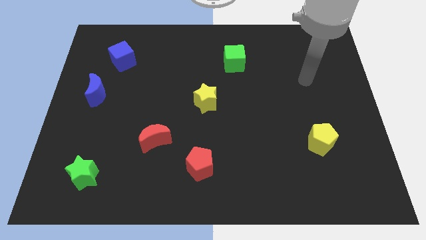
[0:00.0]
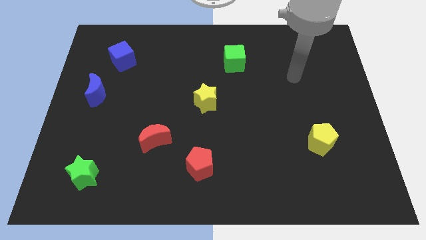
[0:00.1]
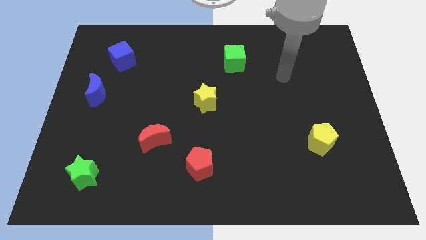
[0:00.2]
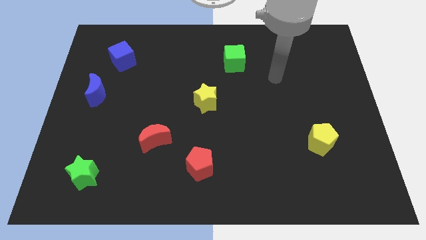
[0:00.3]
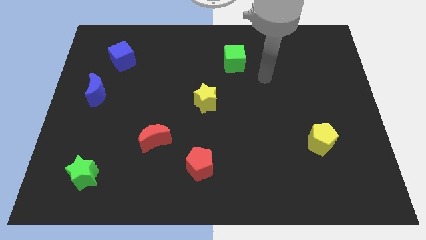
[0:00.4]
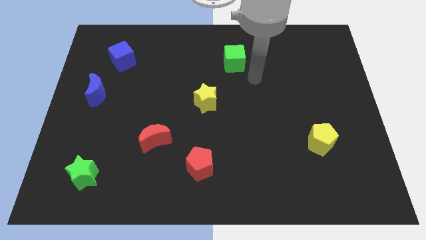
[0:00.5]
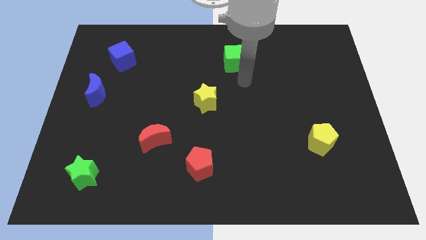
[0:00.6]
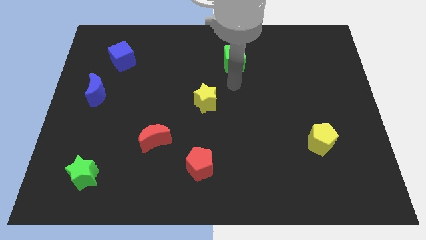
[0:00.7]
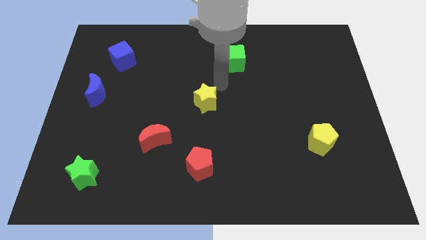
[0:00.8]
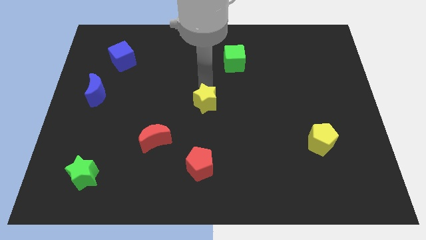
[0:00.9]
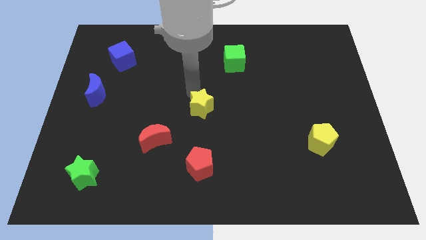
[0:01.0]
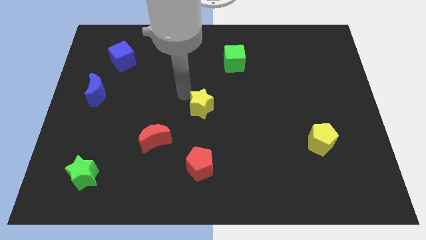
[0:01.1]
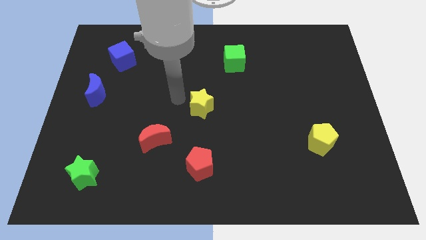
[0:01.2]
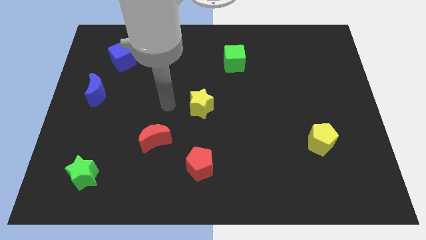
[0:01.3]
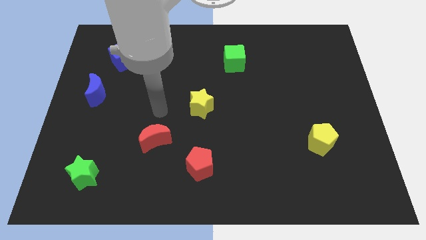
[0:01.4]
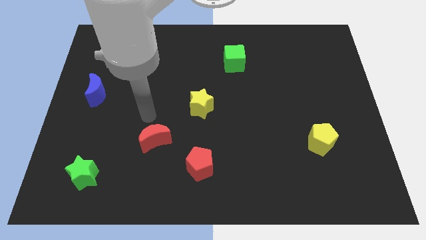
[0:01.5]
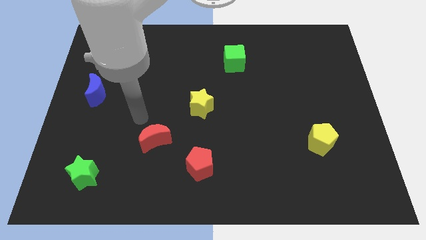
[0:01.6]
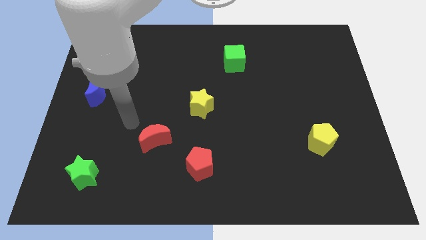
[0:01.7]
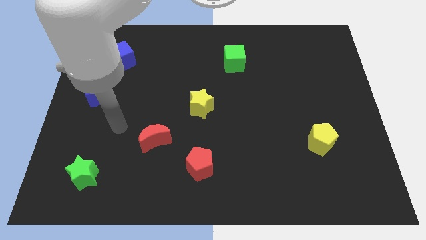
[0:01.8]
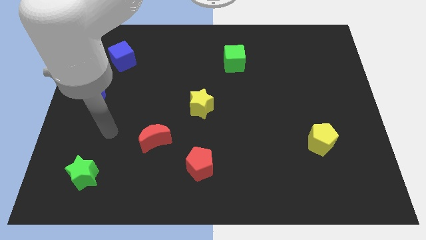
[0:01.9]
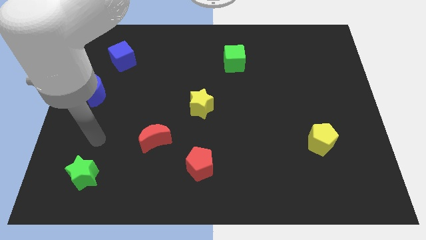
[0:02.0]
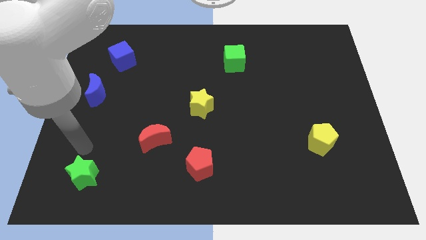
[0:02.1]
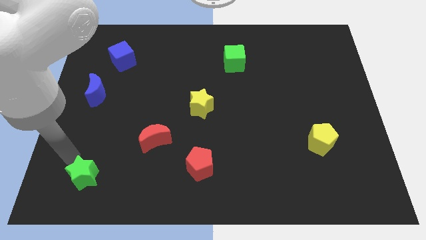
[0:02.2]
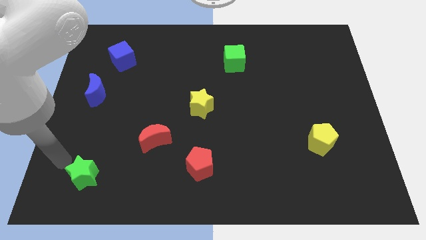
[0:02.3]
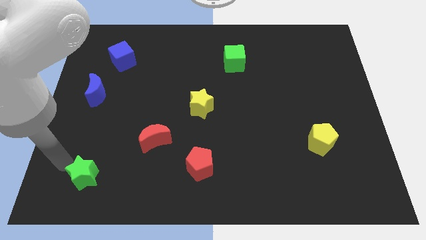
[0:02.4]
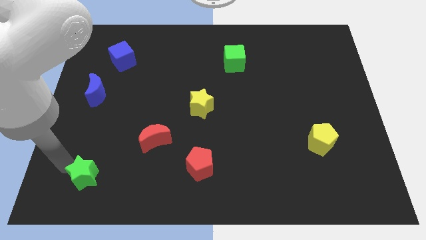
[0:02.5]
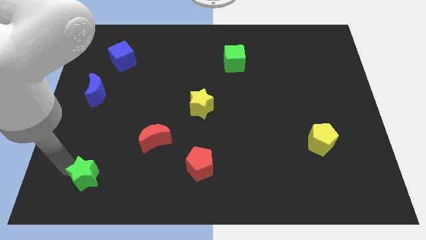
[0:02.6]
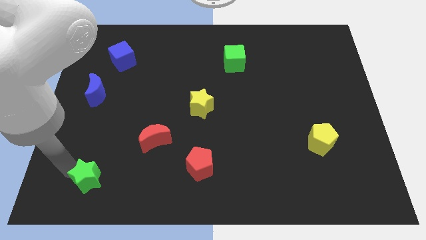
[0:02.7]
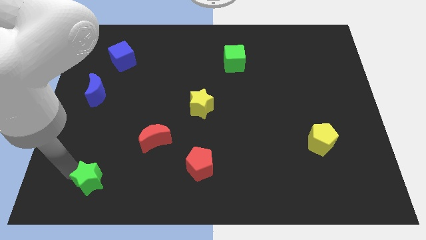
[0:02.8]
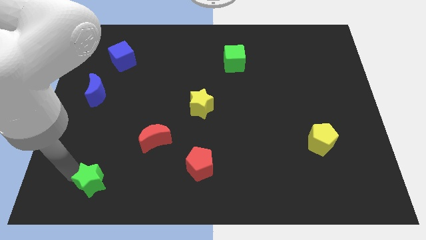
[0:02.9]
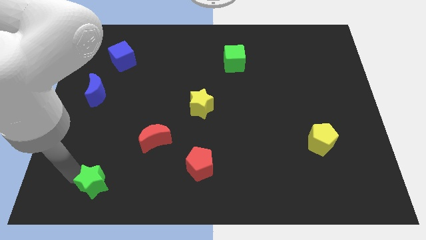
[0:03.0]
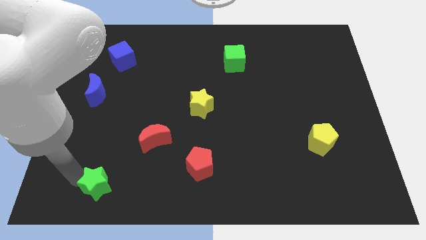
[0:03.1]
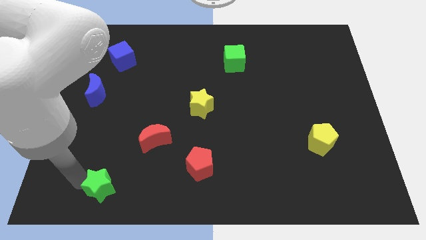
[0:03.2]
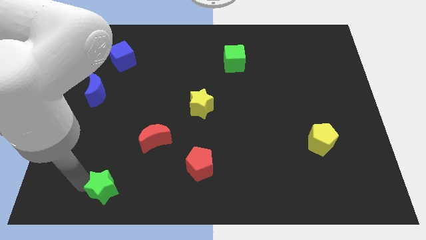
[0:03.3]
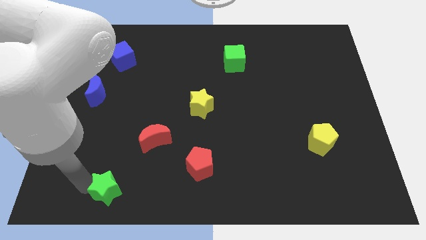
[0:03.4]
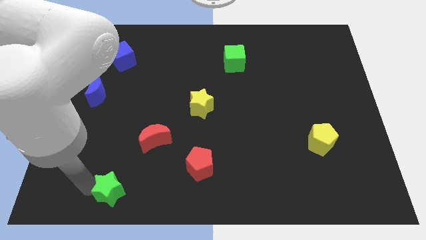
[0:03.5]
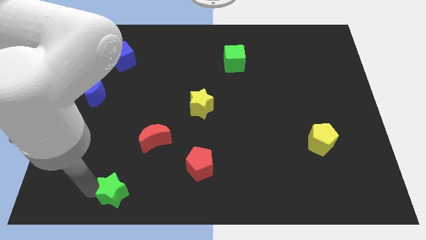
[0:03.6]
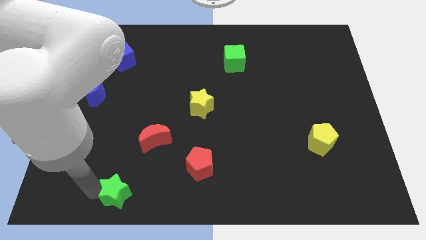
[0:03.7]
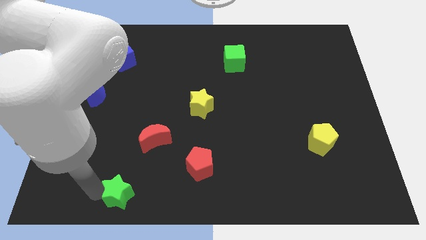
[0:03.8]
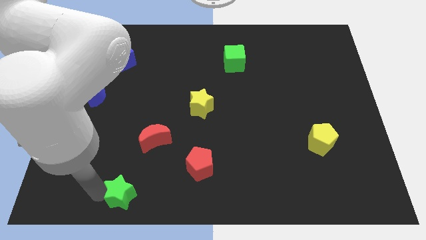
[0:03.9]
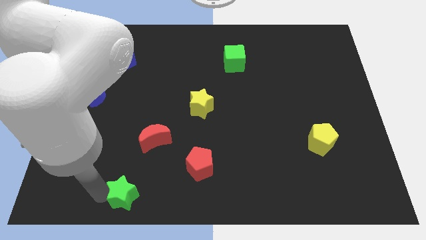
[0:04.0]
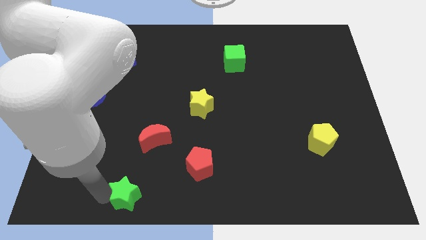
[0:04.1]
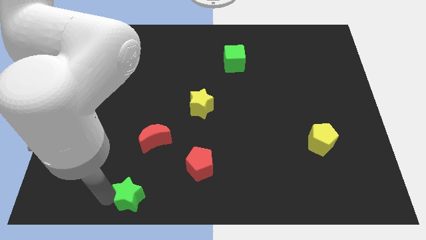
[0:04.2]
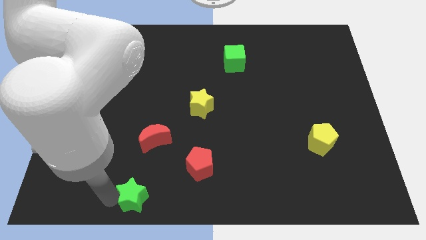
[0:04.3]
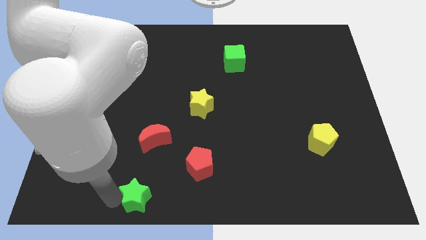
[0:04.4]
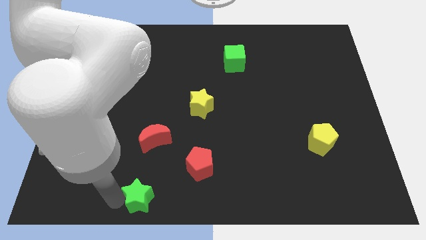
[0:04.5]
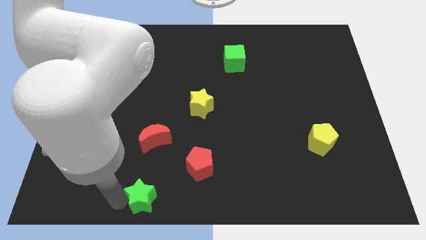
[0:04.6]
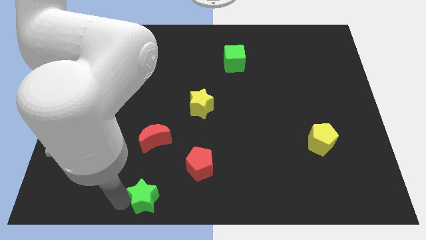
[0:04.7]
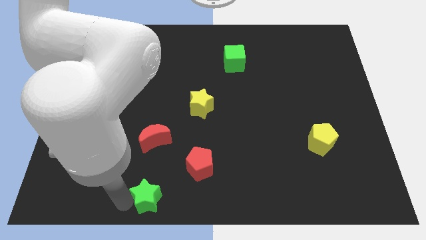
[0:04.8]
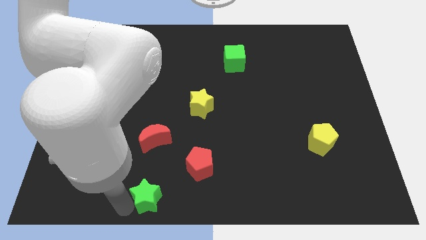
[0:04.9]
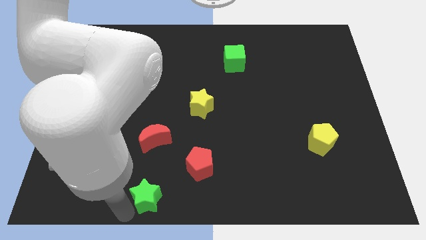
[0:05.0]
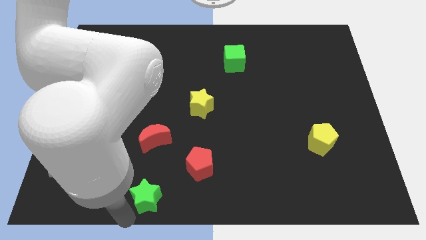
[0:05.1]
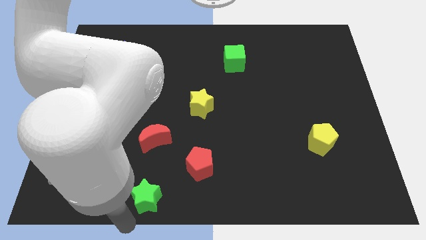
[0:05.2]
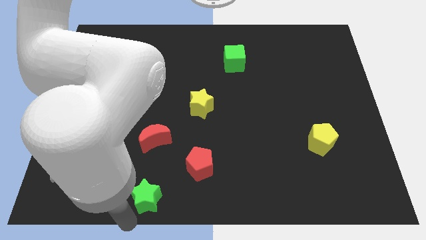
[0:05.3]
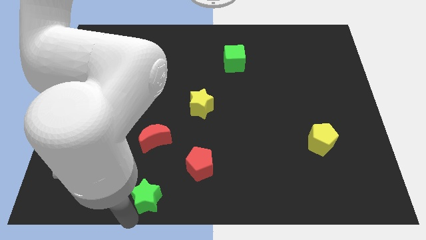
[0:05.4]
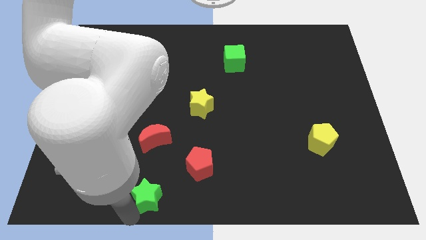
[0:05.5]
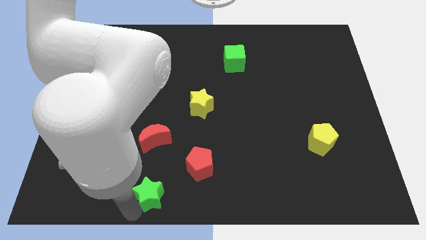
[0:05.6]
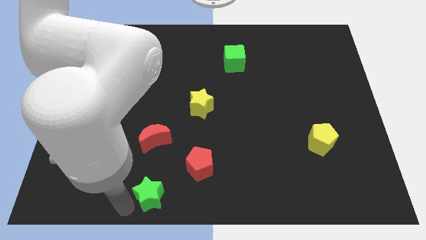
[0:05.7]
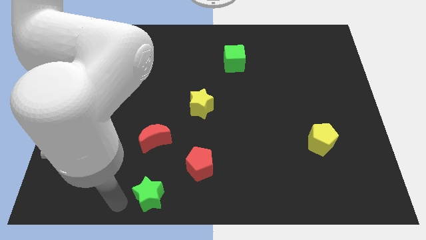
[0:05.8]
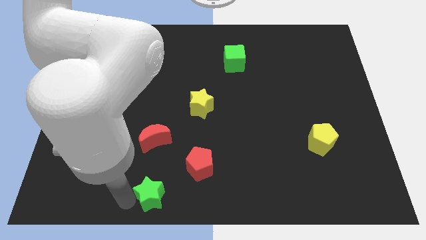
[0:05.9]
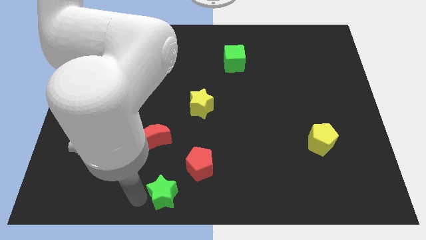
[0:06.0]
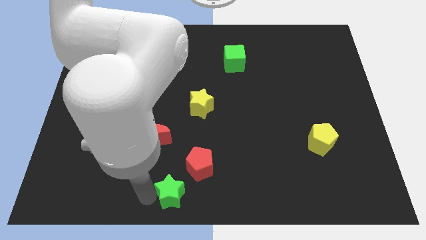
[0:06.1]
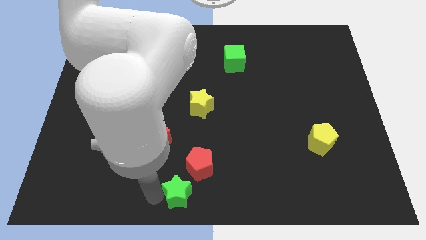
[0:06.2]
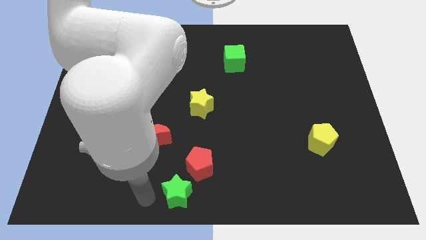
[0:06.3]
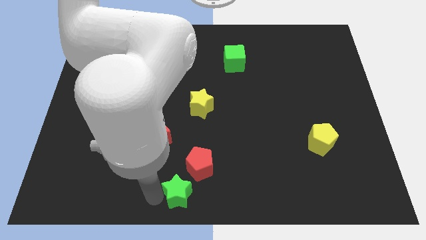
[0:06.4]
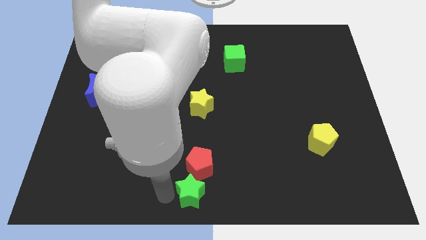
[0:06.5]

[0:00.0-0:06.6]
move the green star to the right

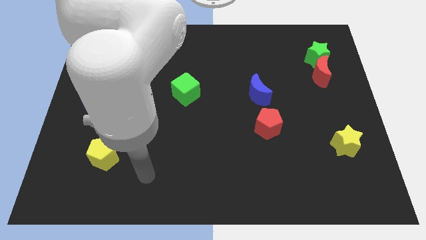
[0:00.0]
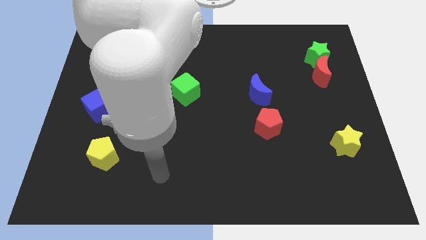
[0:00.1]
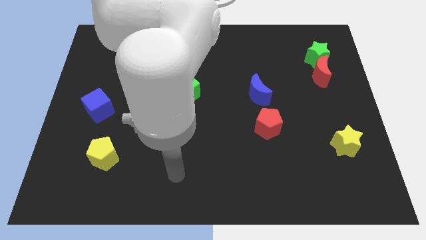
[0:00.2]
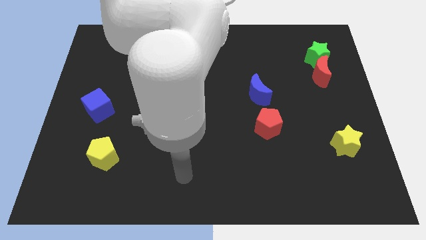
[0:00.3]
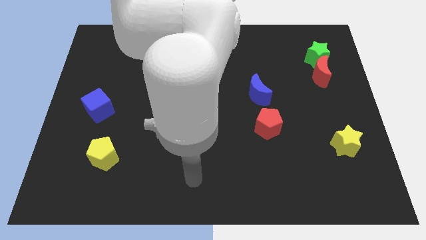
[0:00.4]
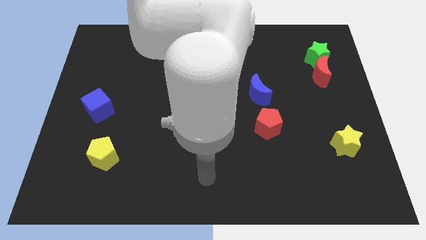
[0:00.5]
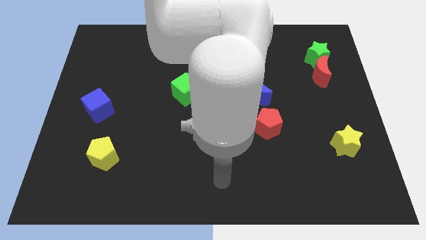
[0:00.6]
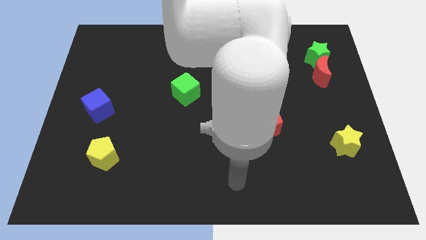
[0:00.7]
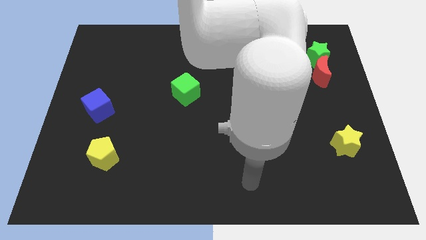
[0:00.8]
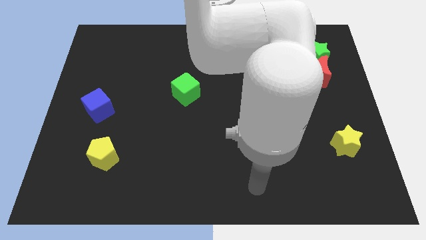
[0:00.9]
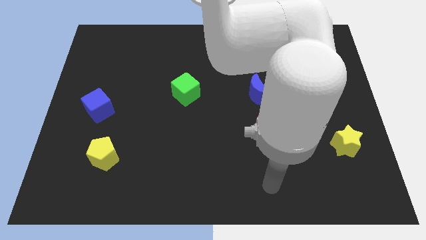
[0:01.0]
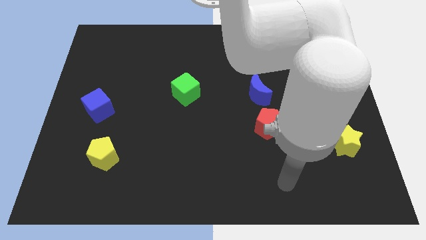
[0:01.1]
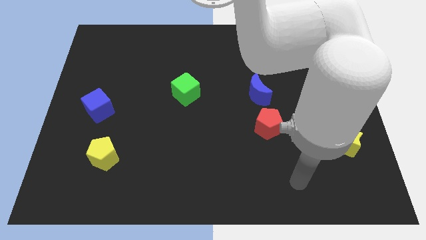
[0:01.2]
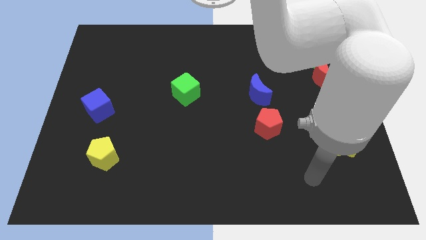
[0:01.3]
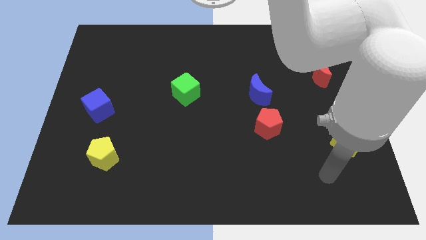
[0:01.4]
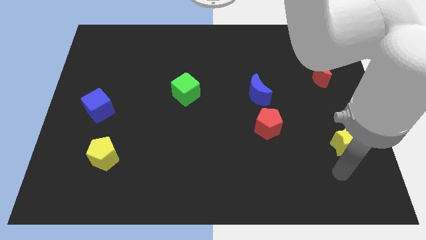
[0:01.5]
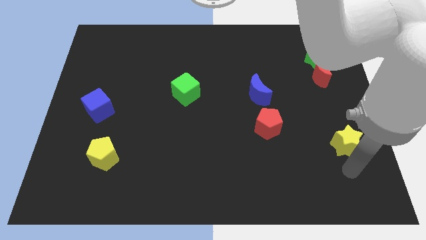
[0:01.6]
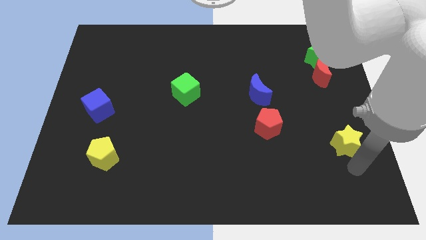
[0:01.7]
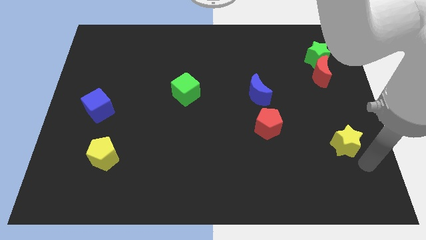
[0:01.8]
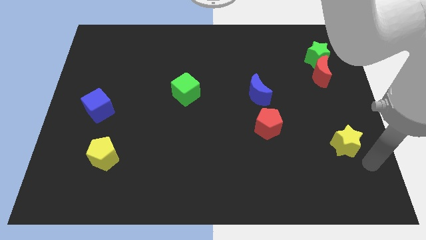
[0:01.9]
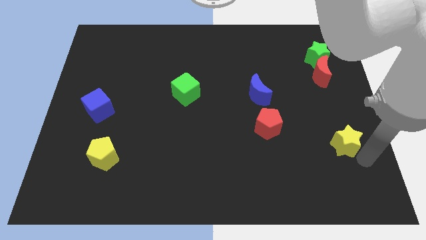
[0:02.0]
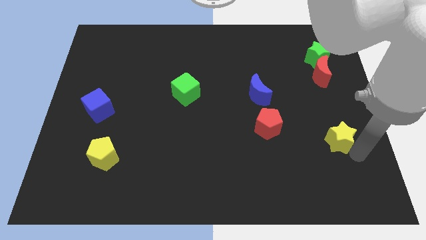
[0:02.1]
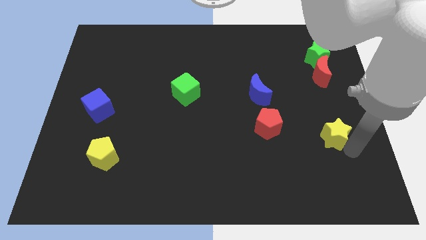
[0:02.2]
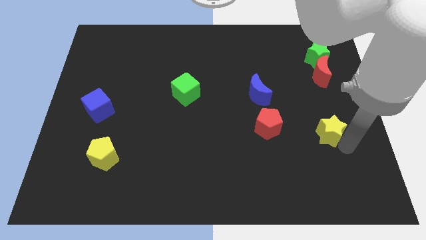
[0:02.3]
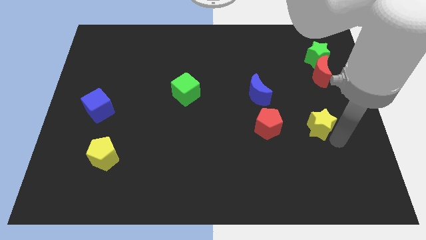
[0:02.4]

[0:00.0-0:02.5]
push the yellow star slightly up and then left
